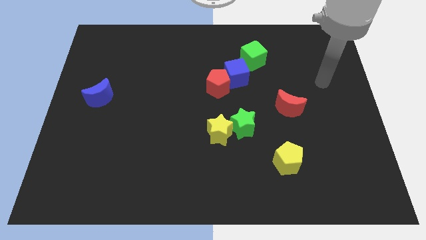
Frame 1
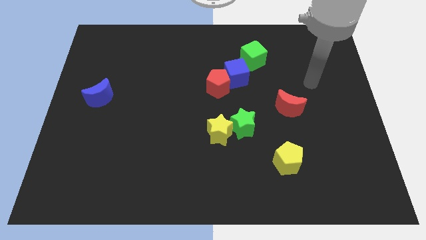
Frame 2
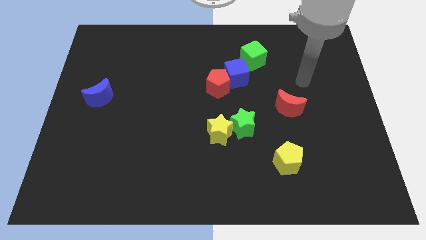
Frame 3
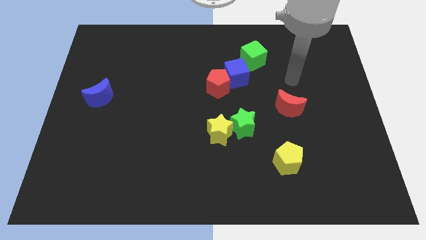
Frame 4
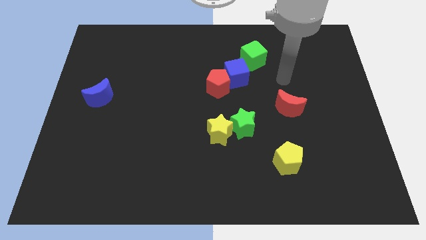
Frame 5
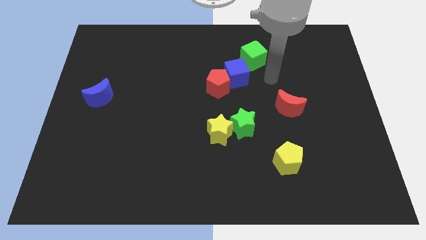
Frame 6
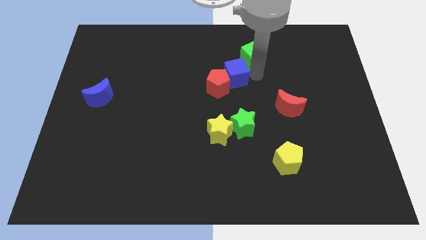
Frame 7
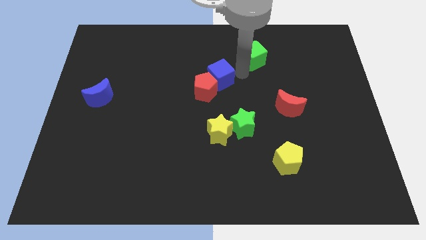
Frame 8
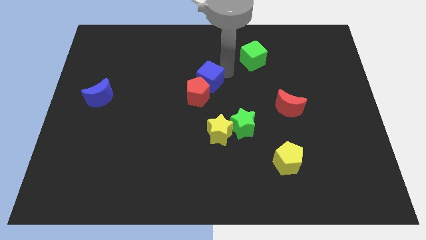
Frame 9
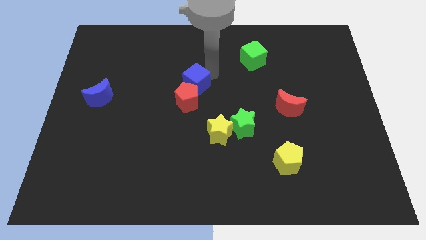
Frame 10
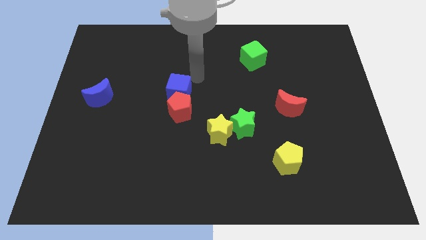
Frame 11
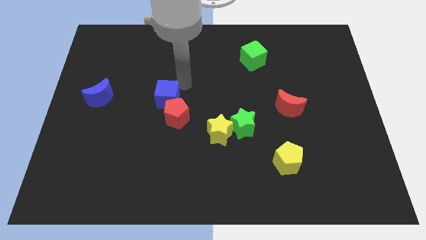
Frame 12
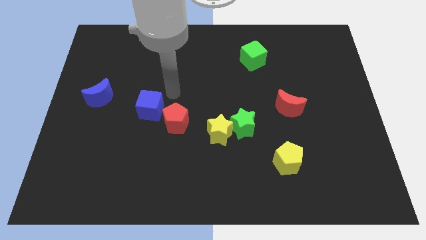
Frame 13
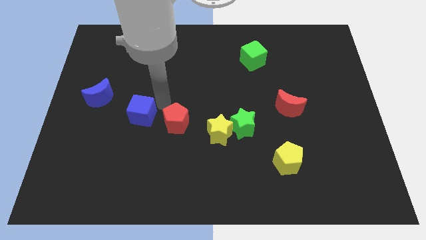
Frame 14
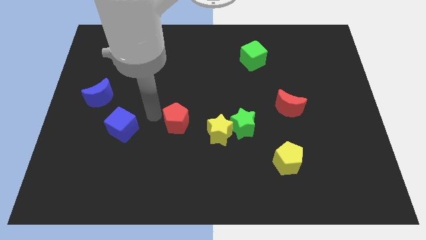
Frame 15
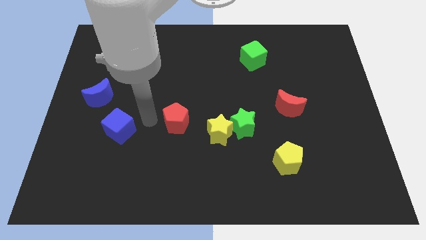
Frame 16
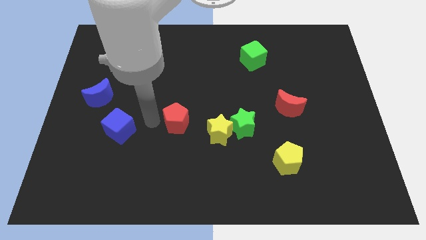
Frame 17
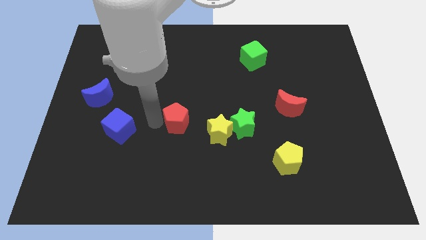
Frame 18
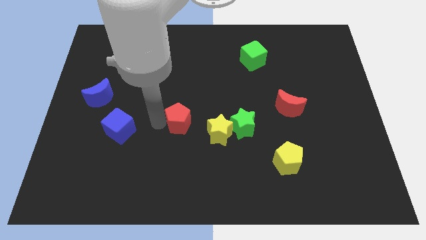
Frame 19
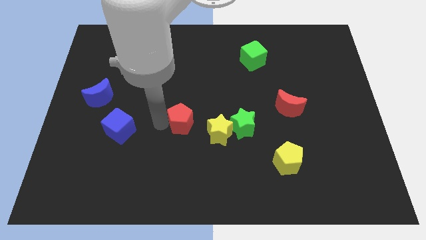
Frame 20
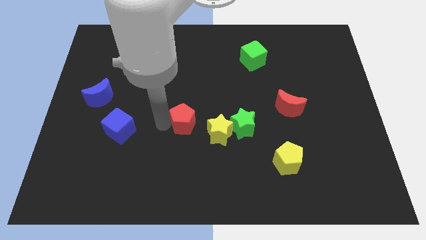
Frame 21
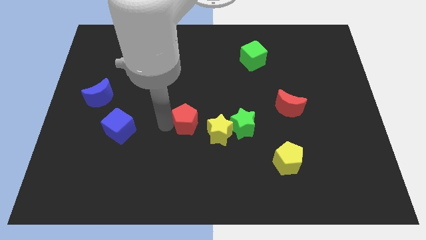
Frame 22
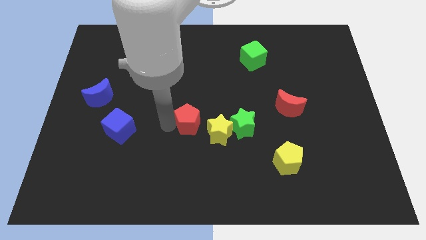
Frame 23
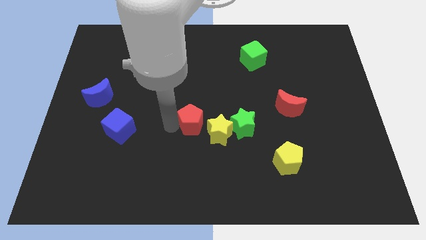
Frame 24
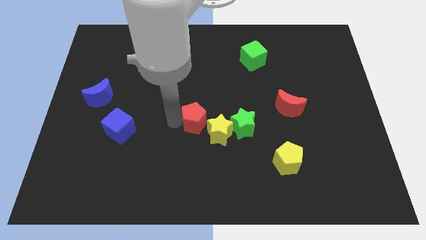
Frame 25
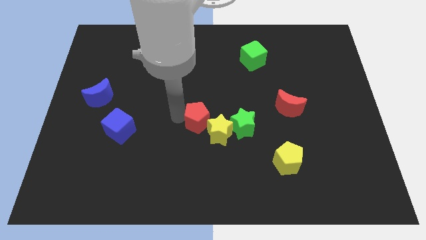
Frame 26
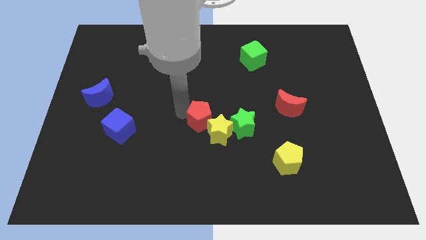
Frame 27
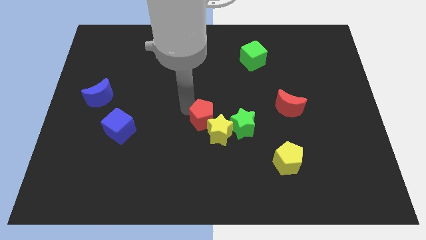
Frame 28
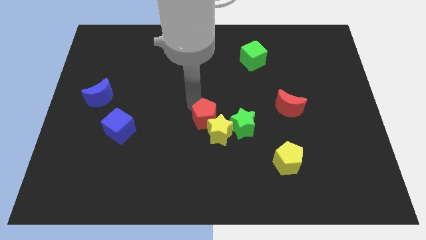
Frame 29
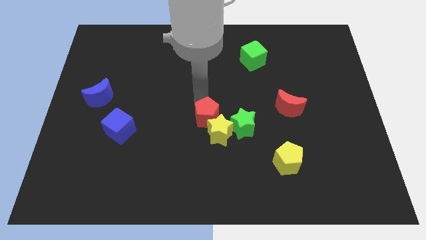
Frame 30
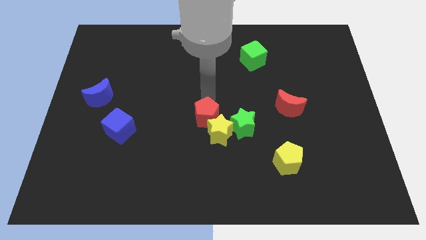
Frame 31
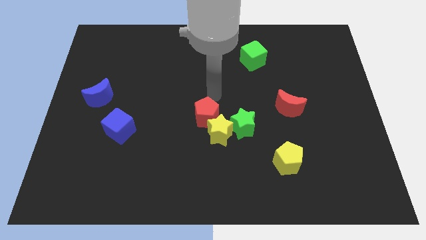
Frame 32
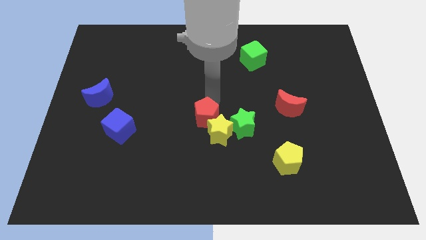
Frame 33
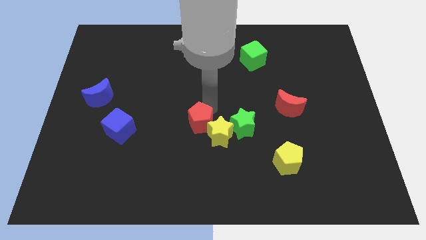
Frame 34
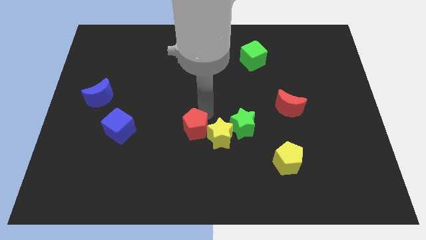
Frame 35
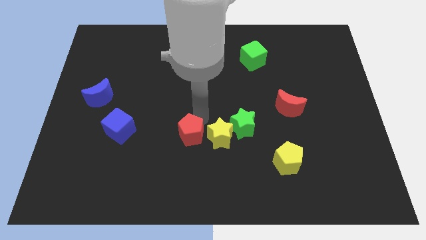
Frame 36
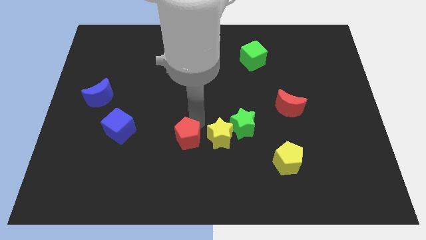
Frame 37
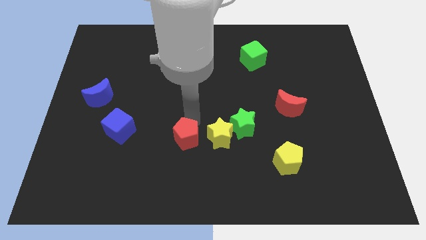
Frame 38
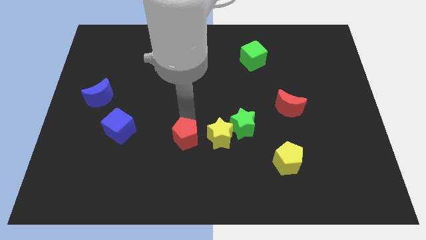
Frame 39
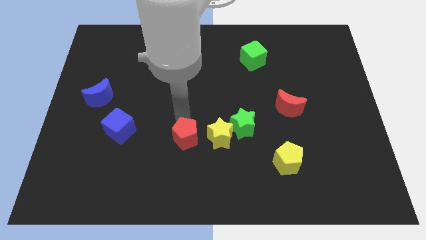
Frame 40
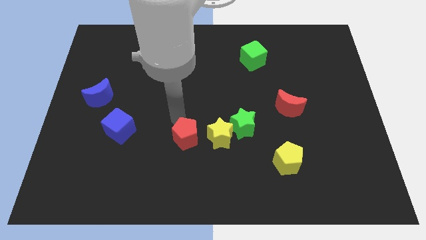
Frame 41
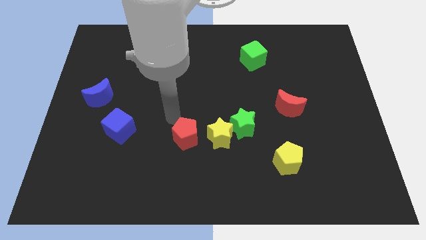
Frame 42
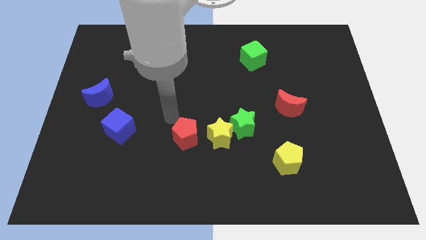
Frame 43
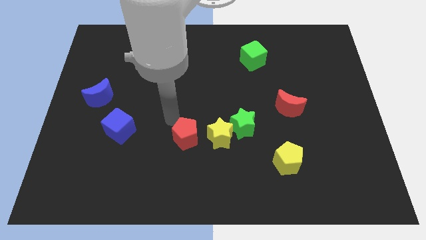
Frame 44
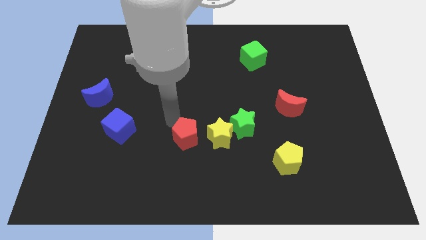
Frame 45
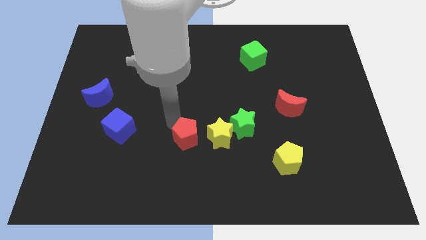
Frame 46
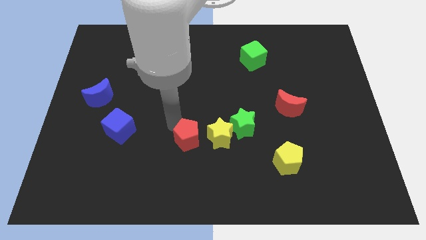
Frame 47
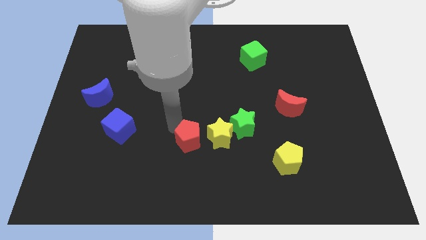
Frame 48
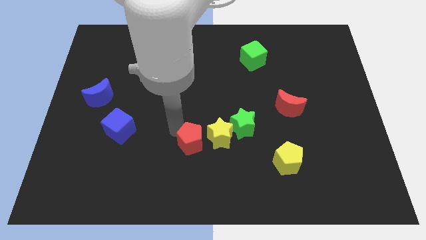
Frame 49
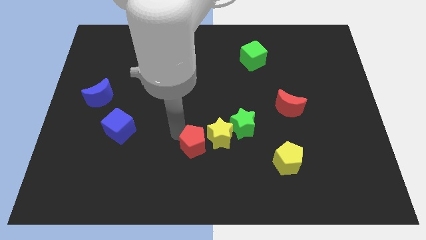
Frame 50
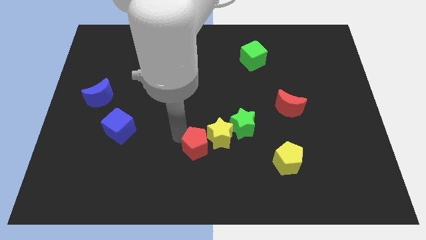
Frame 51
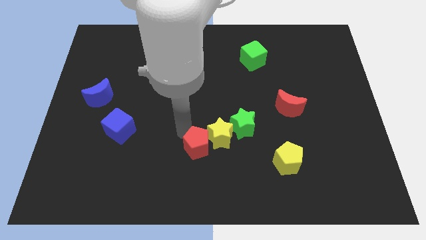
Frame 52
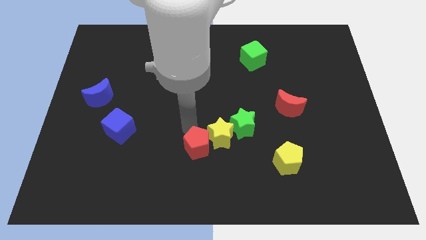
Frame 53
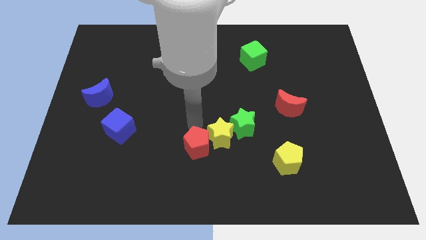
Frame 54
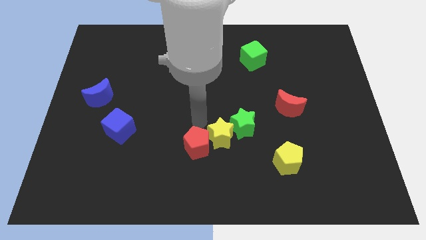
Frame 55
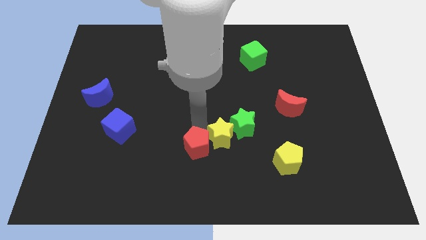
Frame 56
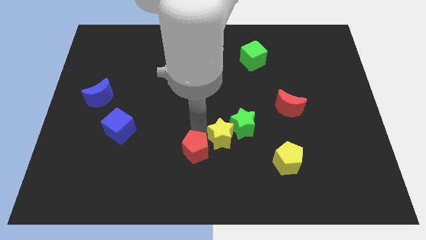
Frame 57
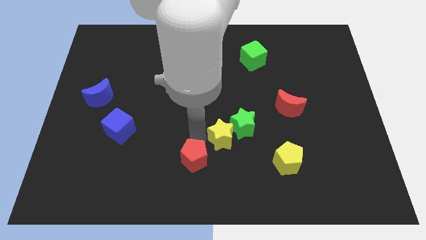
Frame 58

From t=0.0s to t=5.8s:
slide the red pentagon to the bottom
